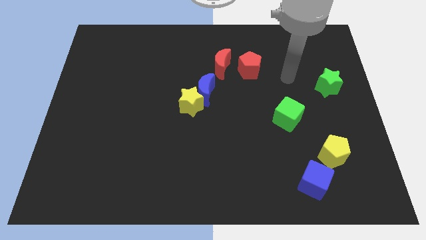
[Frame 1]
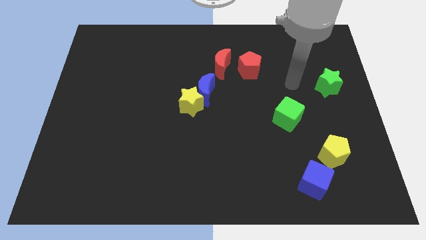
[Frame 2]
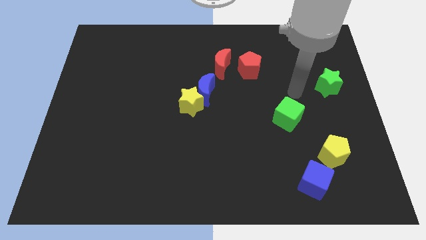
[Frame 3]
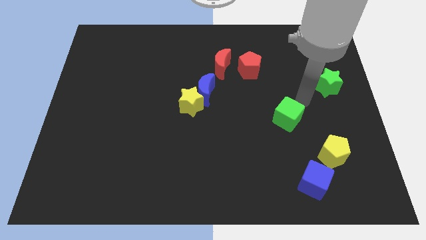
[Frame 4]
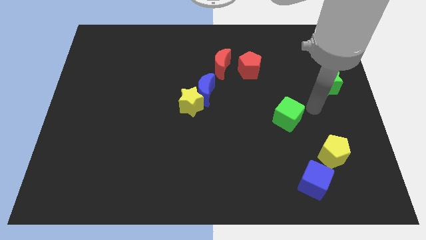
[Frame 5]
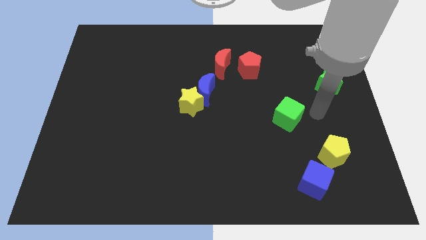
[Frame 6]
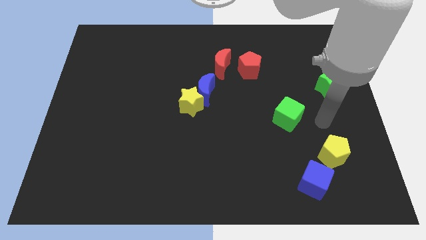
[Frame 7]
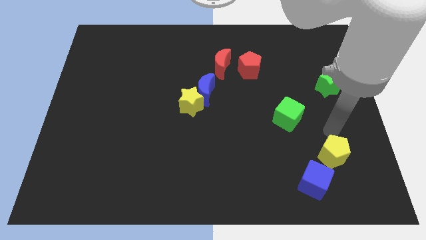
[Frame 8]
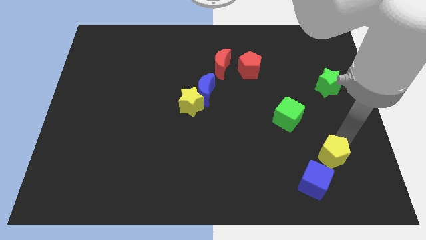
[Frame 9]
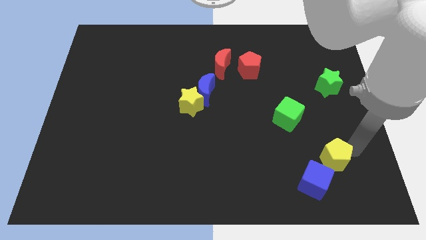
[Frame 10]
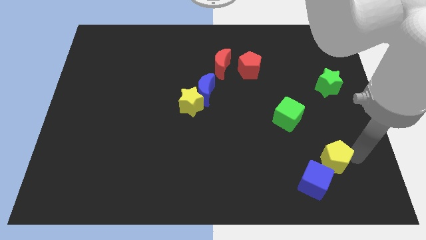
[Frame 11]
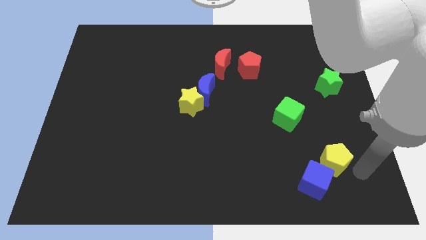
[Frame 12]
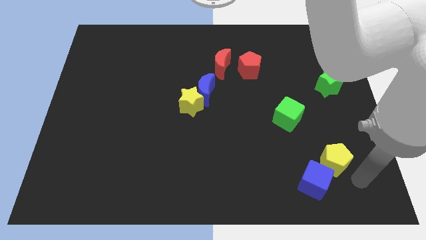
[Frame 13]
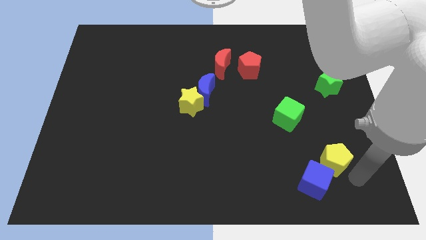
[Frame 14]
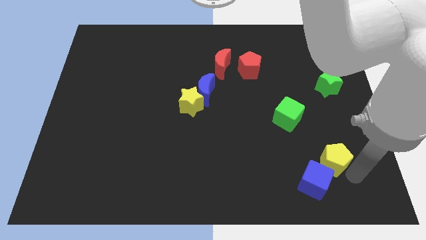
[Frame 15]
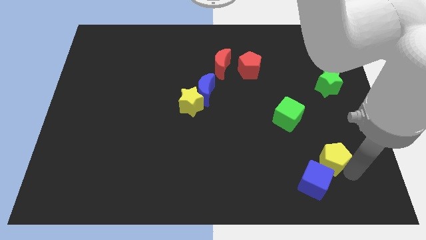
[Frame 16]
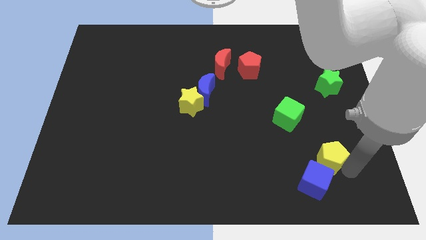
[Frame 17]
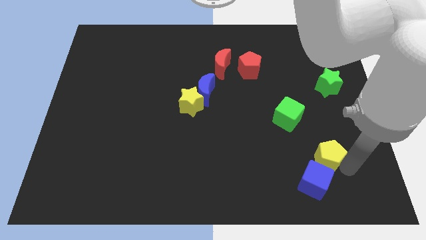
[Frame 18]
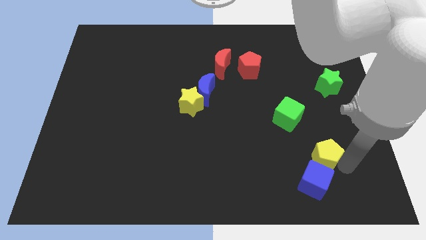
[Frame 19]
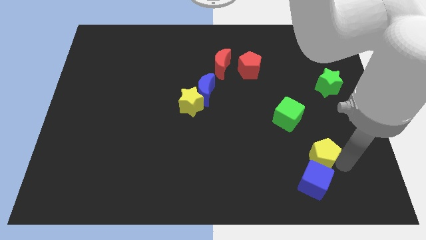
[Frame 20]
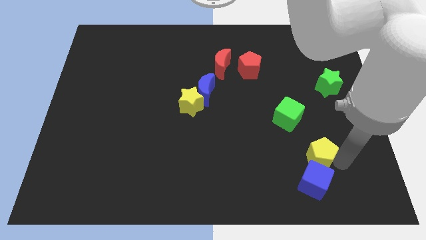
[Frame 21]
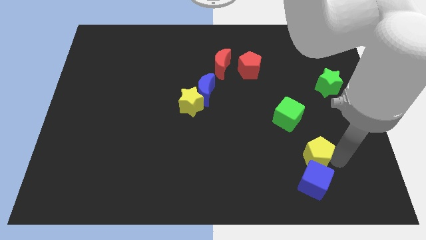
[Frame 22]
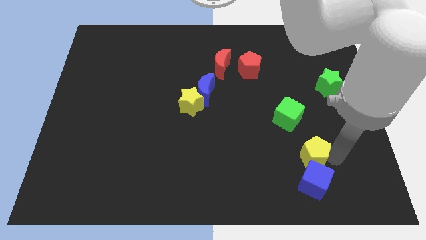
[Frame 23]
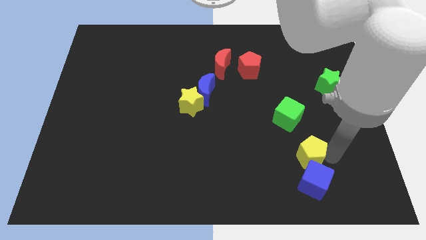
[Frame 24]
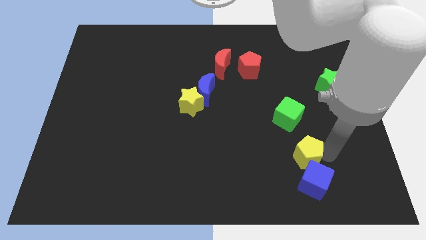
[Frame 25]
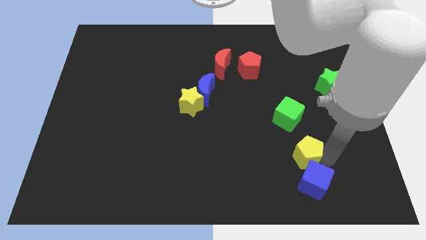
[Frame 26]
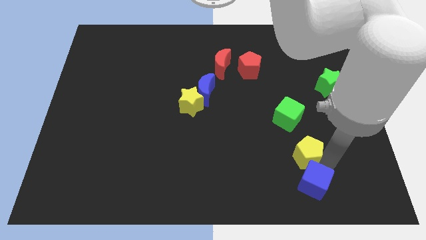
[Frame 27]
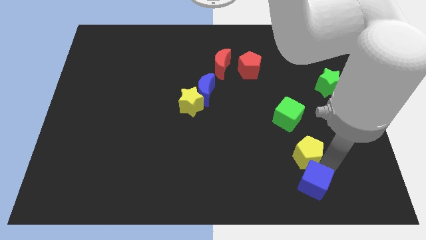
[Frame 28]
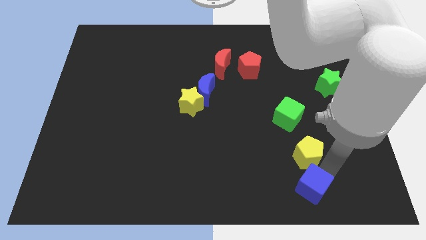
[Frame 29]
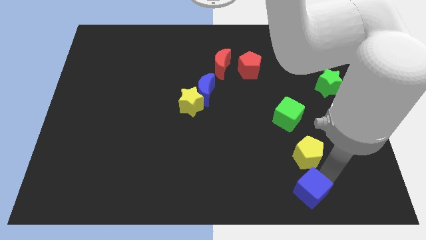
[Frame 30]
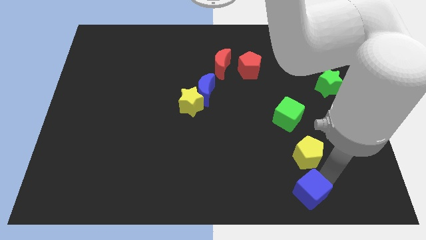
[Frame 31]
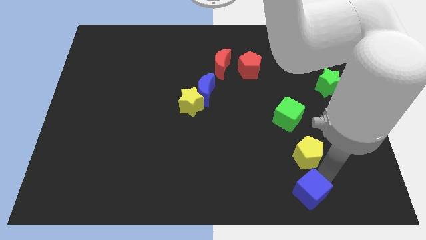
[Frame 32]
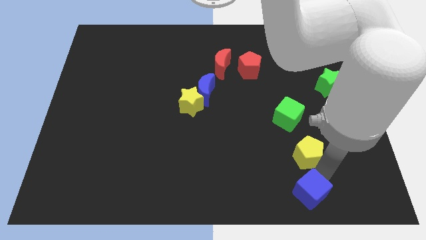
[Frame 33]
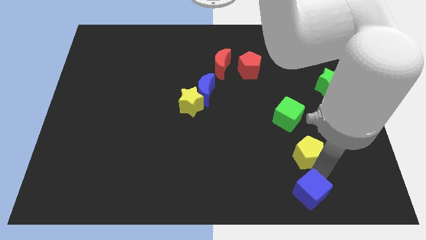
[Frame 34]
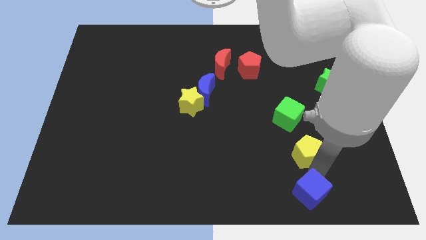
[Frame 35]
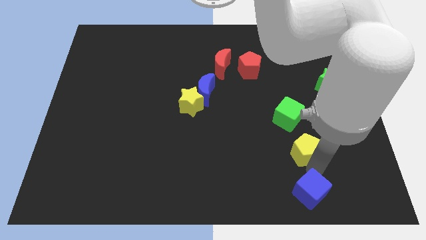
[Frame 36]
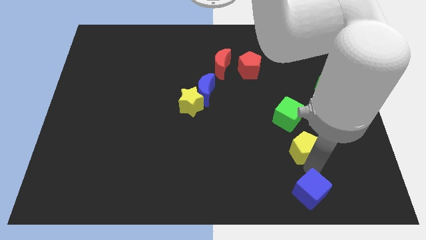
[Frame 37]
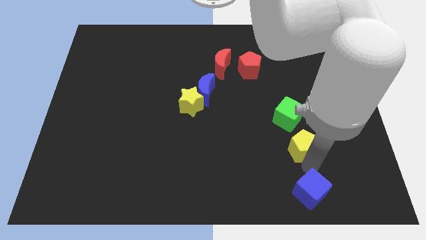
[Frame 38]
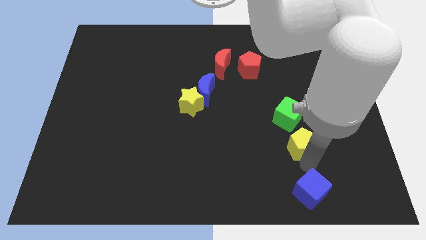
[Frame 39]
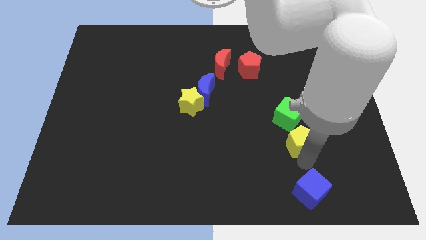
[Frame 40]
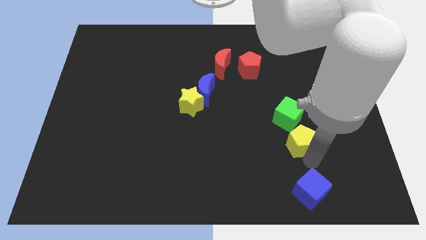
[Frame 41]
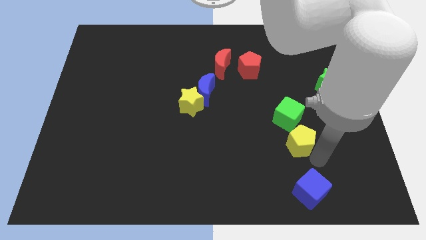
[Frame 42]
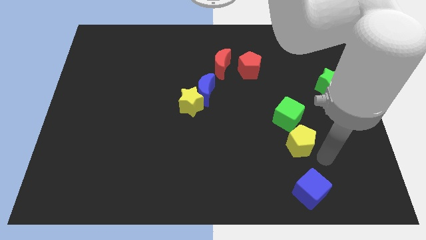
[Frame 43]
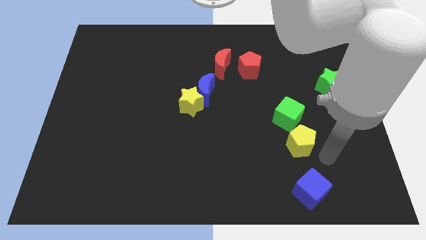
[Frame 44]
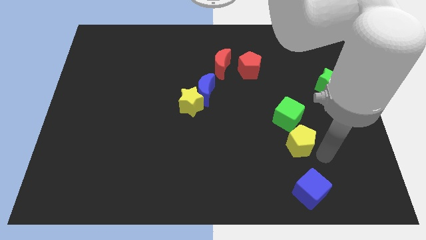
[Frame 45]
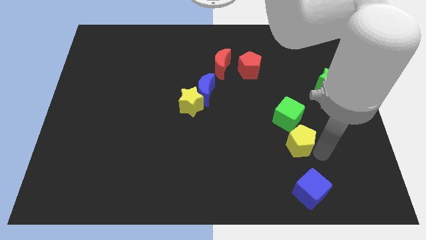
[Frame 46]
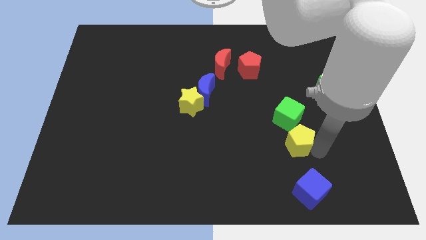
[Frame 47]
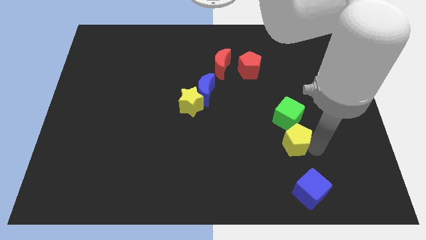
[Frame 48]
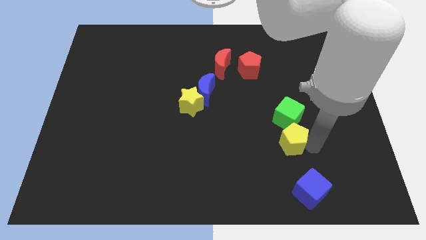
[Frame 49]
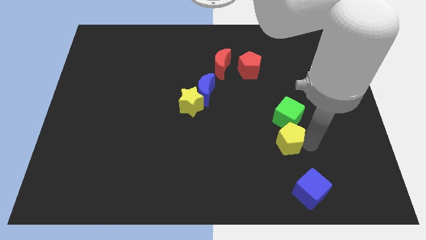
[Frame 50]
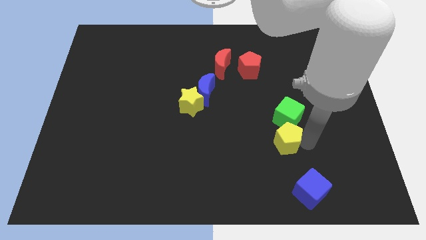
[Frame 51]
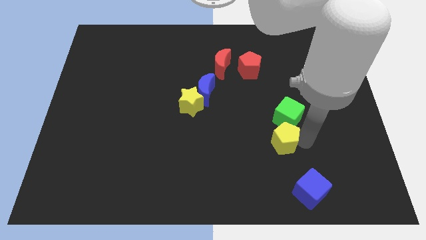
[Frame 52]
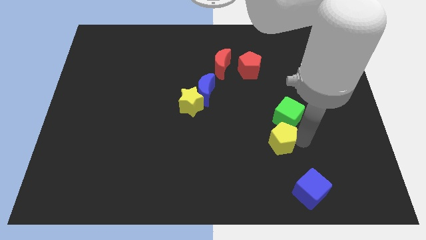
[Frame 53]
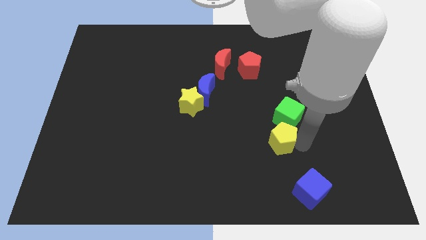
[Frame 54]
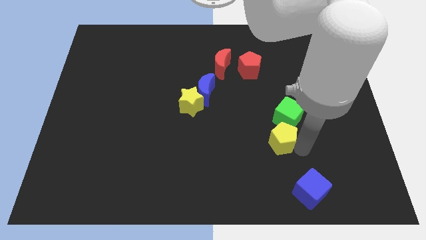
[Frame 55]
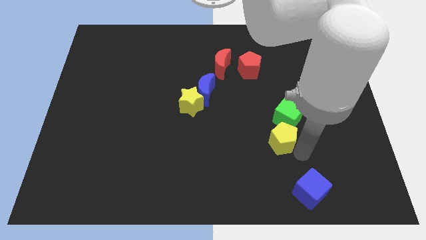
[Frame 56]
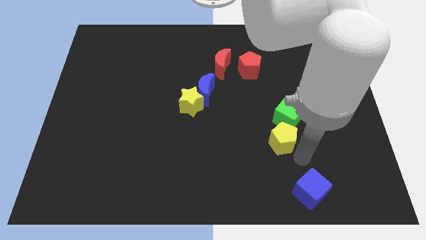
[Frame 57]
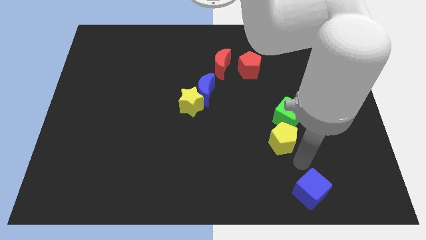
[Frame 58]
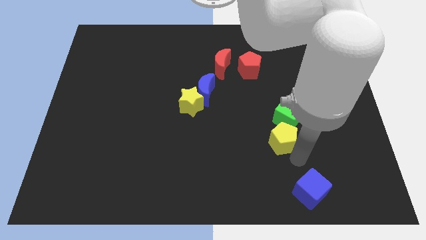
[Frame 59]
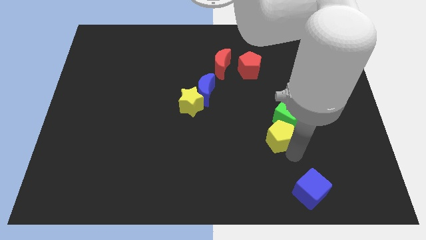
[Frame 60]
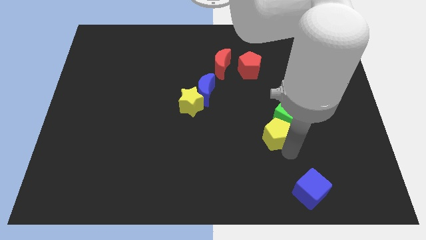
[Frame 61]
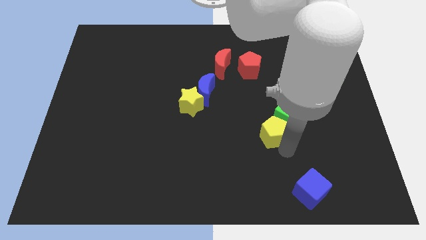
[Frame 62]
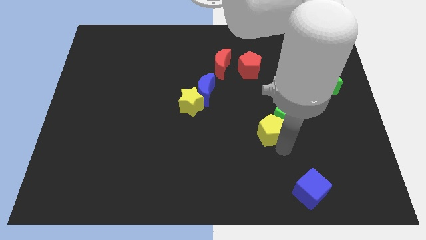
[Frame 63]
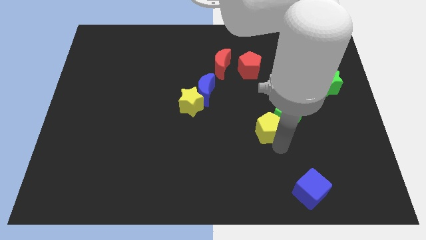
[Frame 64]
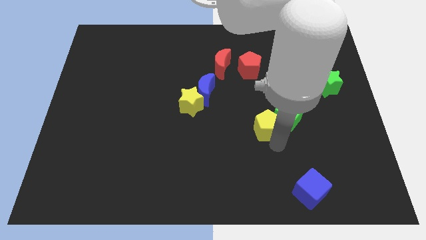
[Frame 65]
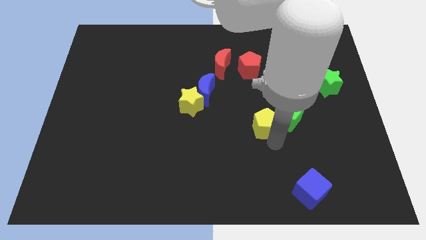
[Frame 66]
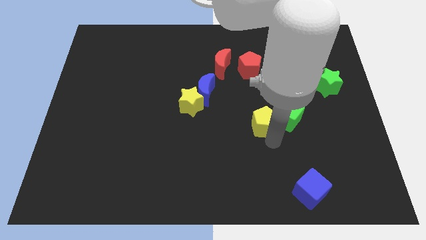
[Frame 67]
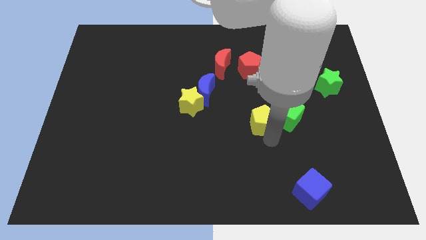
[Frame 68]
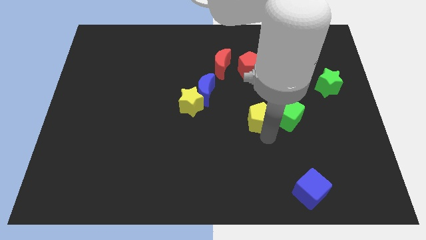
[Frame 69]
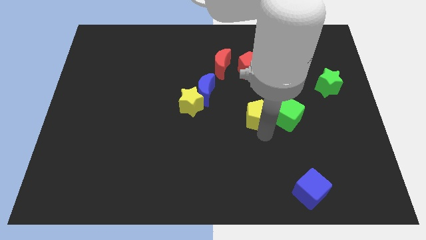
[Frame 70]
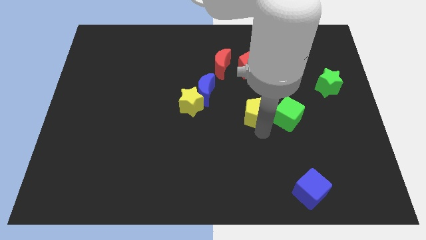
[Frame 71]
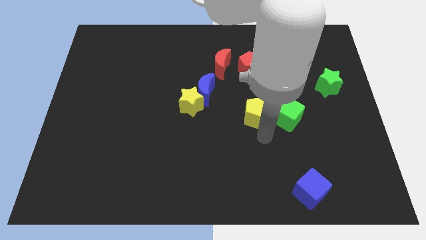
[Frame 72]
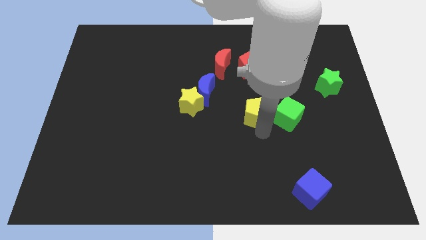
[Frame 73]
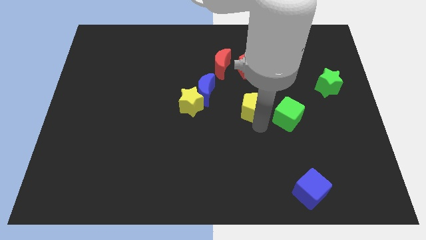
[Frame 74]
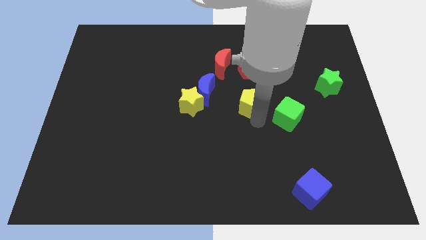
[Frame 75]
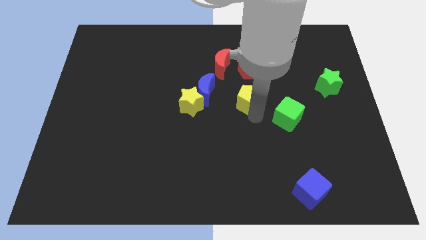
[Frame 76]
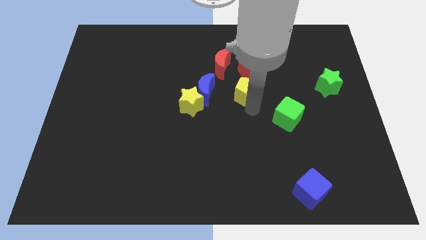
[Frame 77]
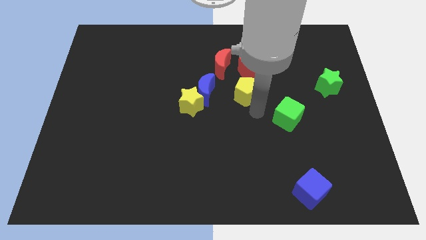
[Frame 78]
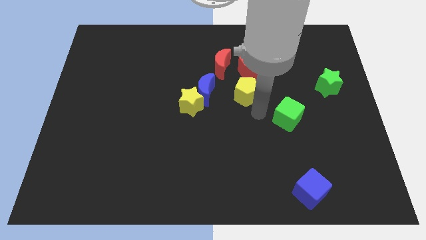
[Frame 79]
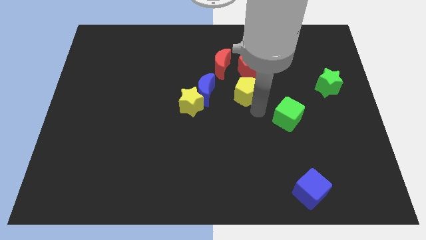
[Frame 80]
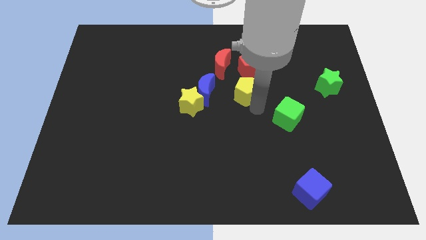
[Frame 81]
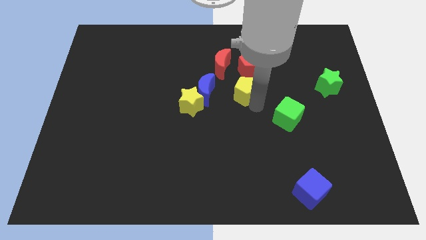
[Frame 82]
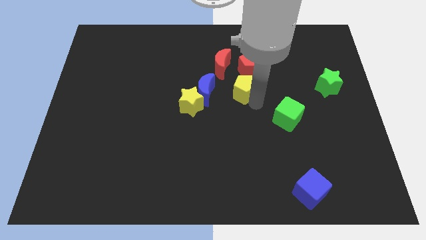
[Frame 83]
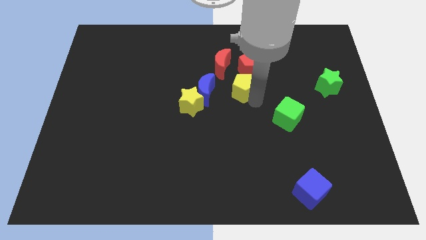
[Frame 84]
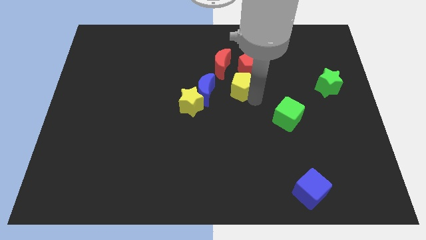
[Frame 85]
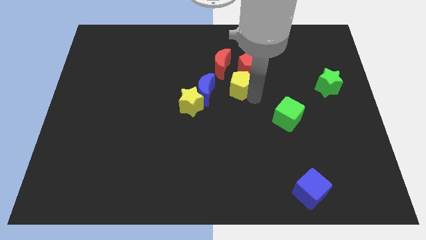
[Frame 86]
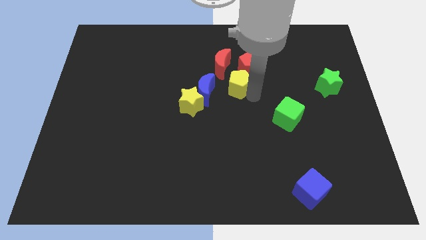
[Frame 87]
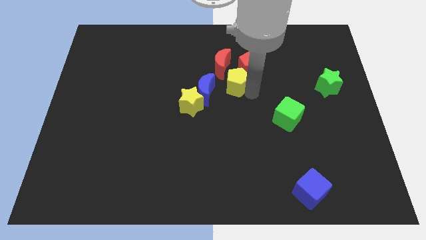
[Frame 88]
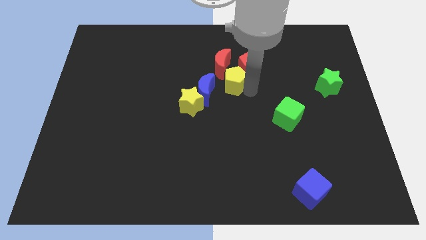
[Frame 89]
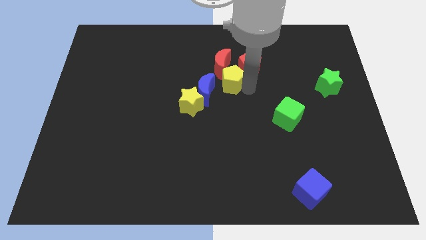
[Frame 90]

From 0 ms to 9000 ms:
slide the yellow pentagon close to the red moon
